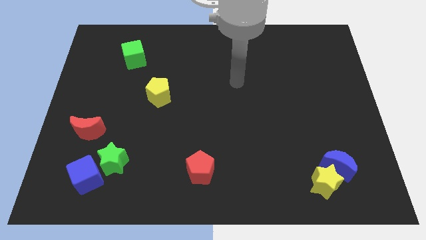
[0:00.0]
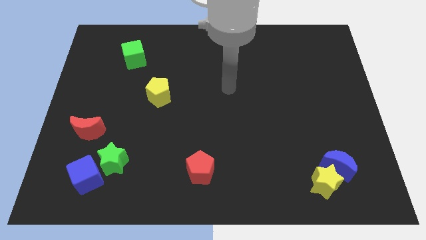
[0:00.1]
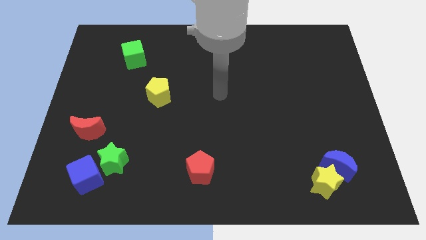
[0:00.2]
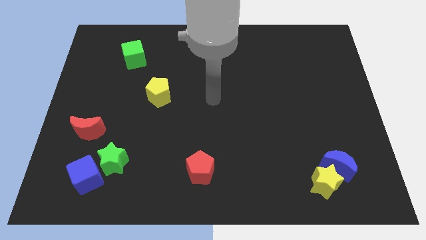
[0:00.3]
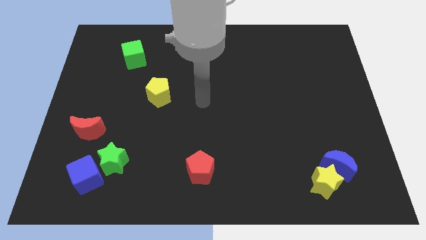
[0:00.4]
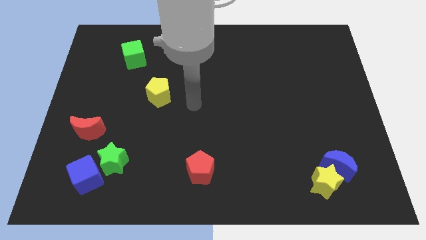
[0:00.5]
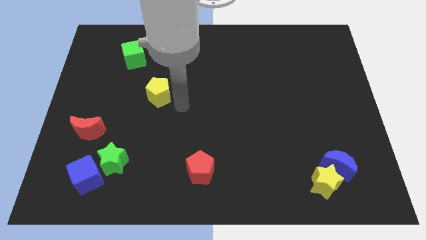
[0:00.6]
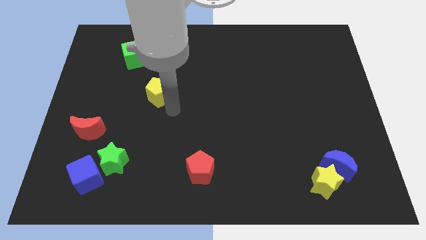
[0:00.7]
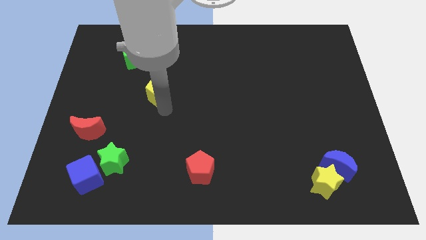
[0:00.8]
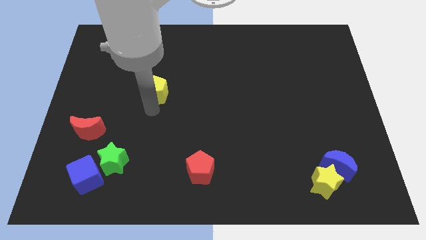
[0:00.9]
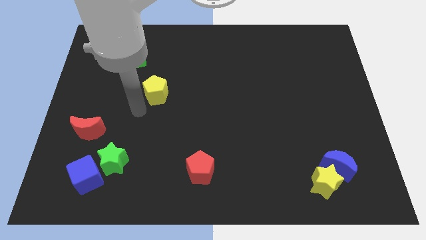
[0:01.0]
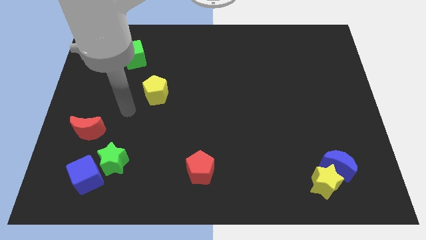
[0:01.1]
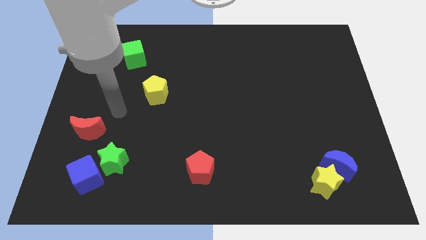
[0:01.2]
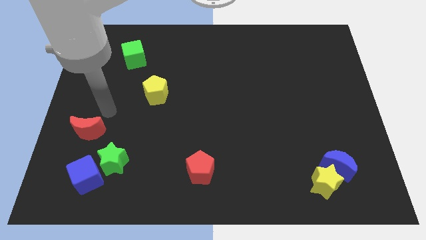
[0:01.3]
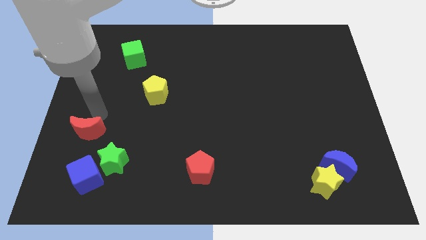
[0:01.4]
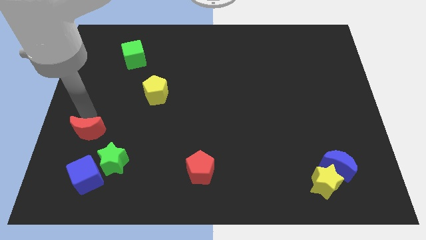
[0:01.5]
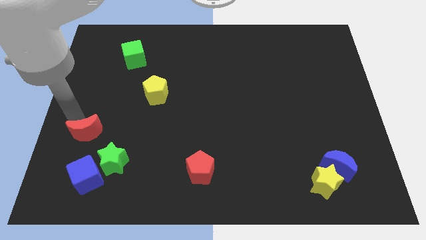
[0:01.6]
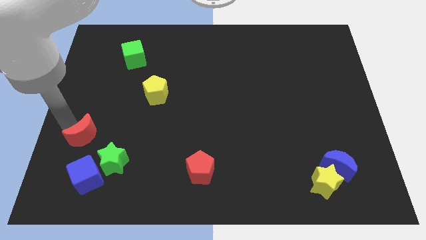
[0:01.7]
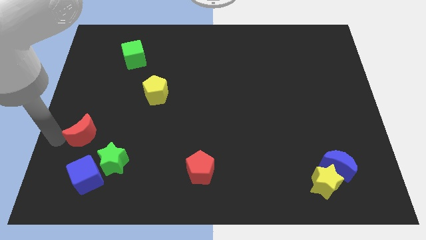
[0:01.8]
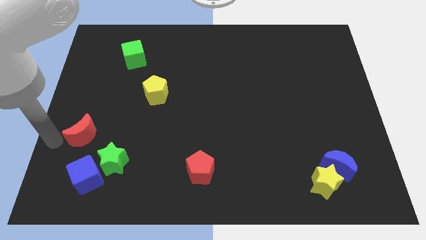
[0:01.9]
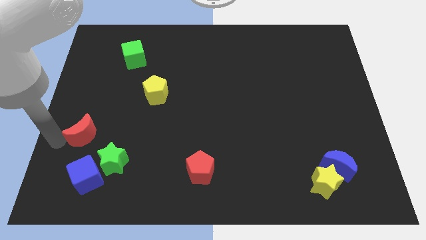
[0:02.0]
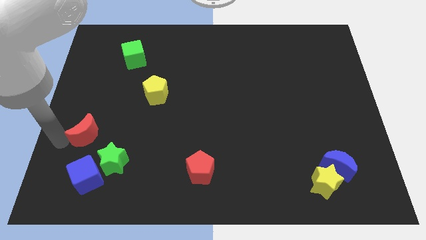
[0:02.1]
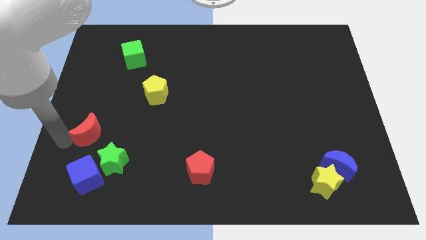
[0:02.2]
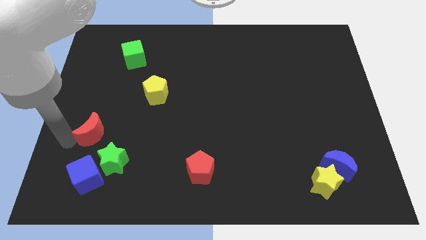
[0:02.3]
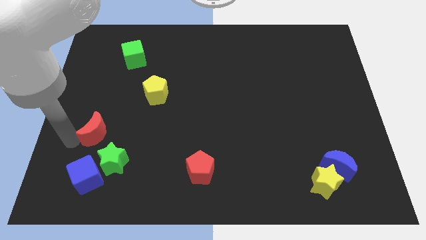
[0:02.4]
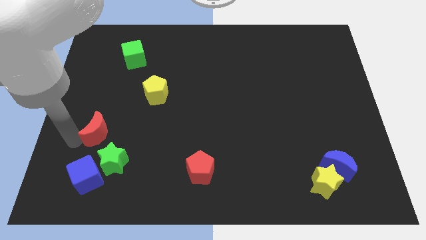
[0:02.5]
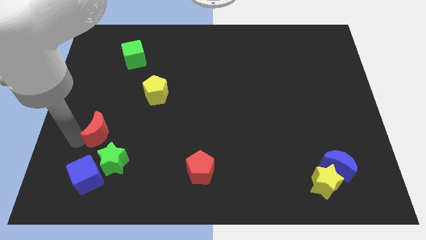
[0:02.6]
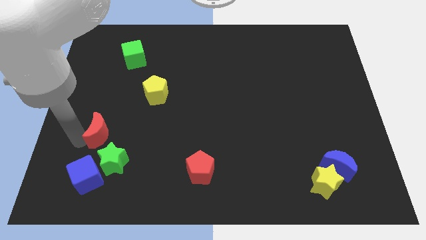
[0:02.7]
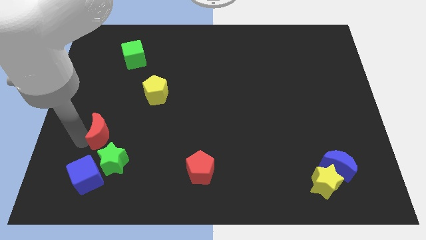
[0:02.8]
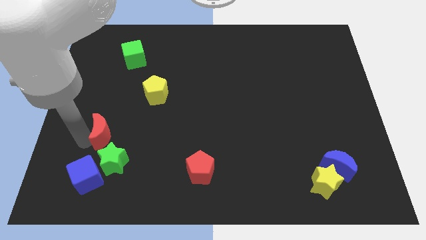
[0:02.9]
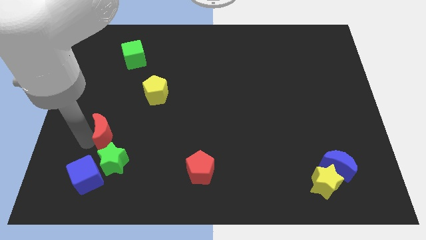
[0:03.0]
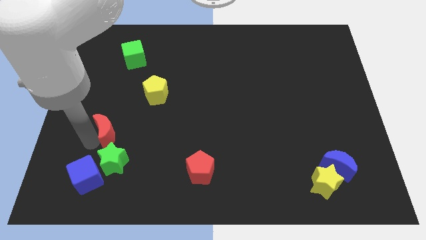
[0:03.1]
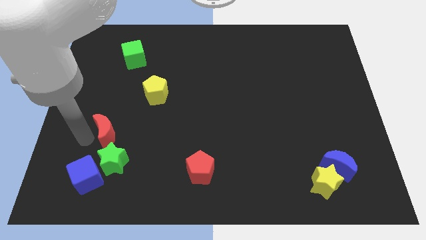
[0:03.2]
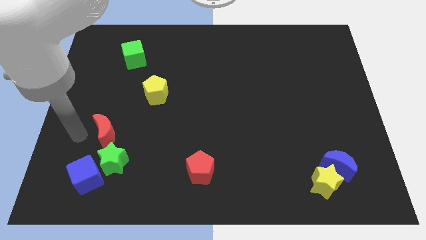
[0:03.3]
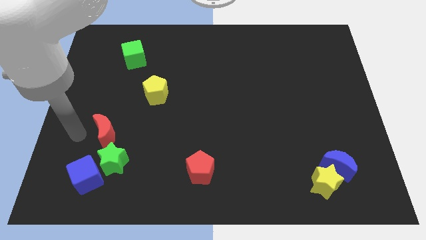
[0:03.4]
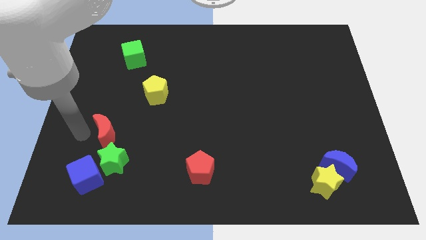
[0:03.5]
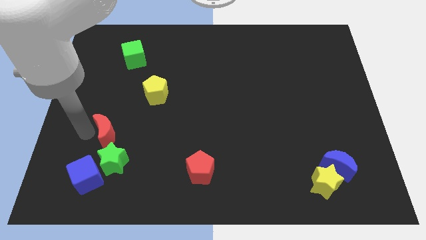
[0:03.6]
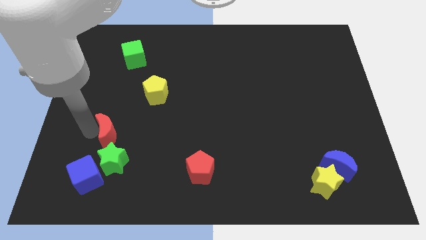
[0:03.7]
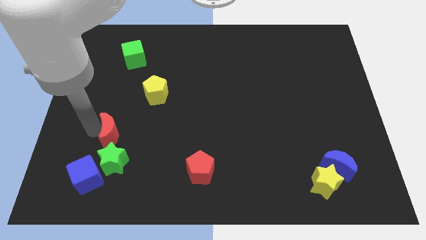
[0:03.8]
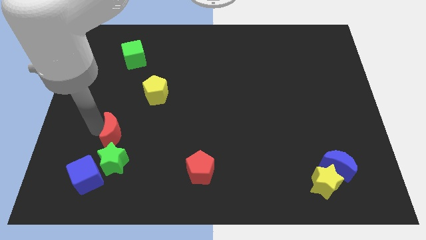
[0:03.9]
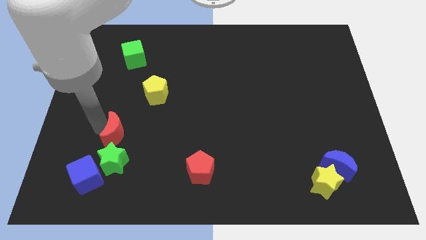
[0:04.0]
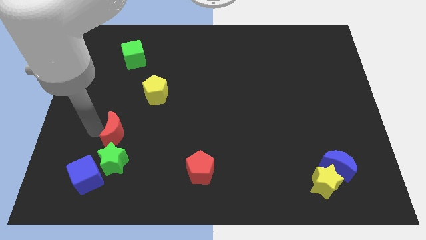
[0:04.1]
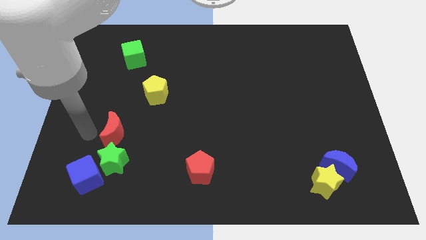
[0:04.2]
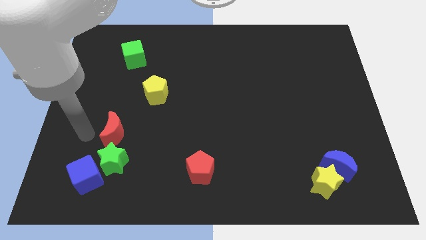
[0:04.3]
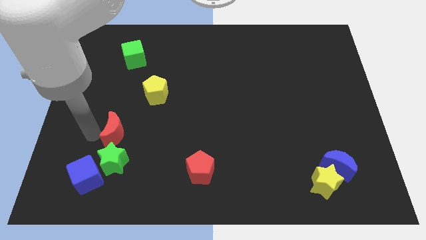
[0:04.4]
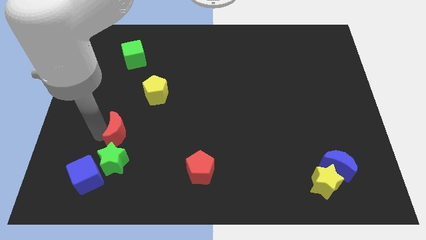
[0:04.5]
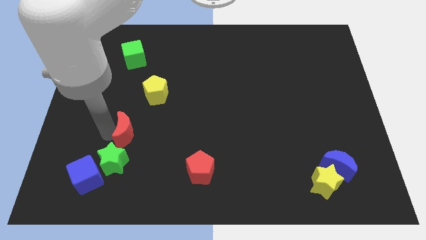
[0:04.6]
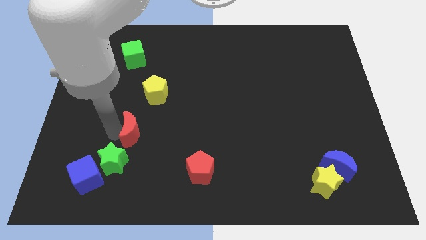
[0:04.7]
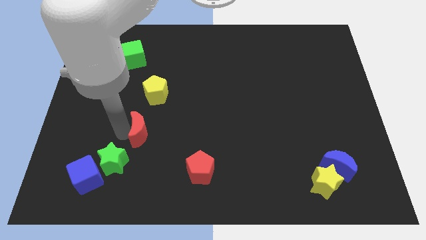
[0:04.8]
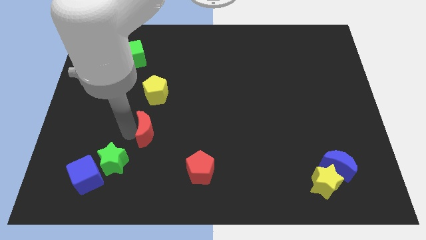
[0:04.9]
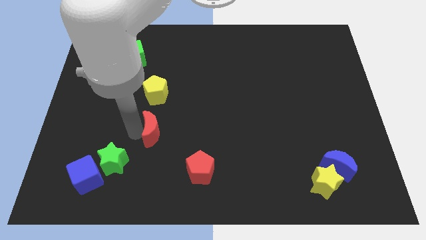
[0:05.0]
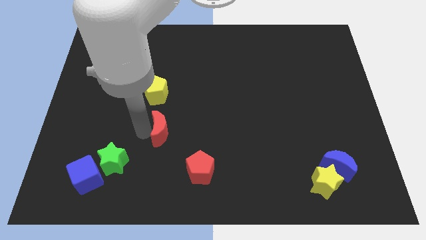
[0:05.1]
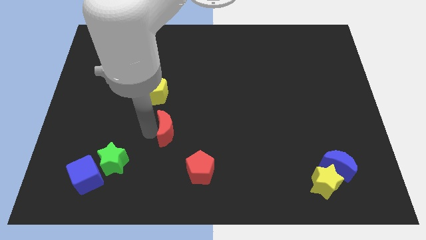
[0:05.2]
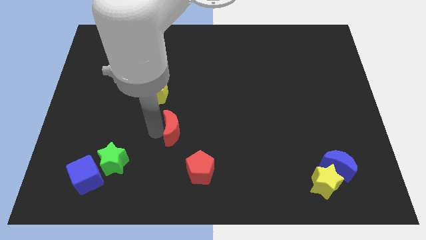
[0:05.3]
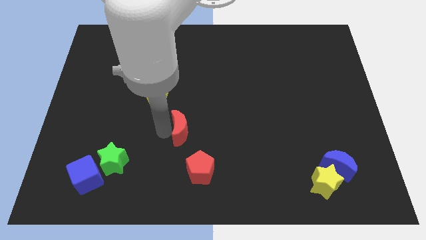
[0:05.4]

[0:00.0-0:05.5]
push the red moon to the right

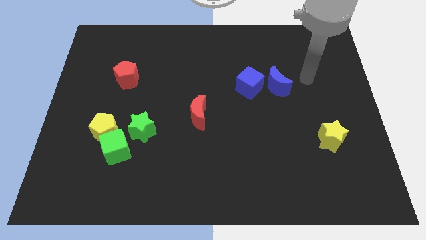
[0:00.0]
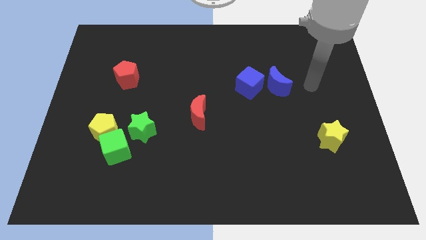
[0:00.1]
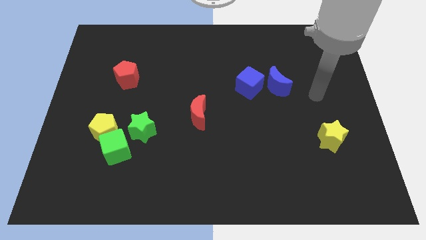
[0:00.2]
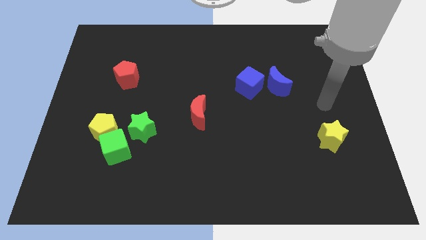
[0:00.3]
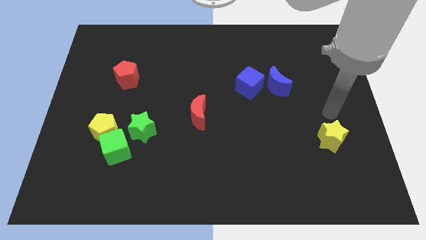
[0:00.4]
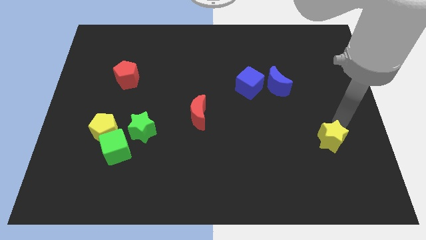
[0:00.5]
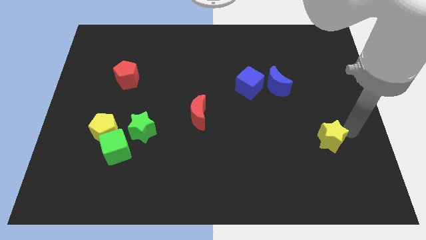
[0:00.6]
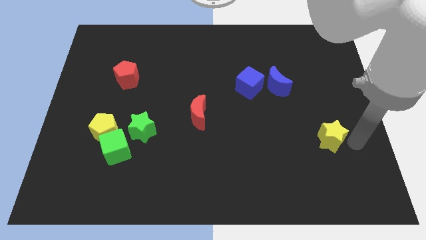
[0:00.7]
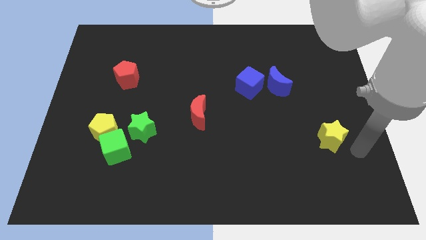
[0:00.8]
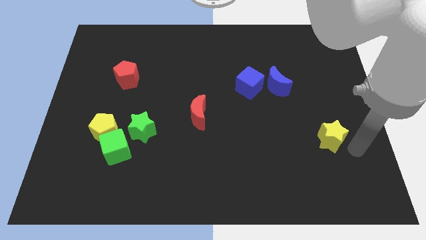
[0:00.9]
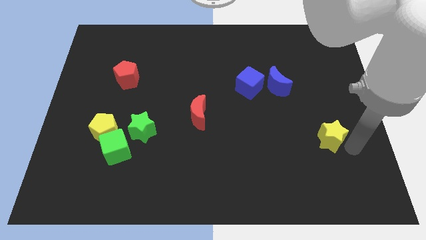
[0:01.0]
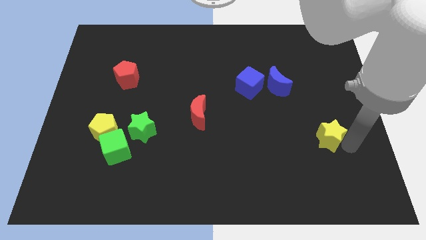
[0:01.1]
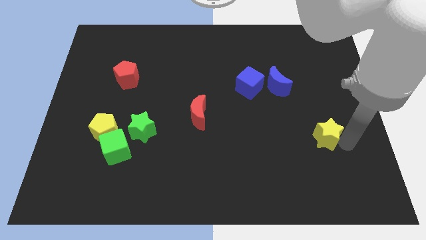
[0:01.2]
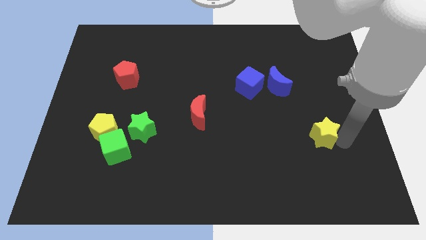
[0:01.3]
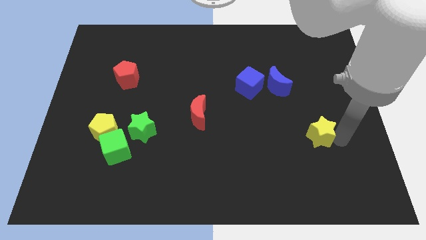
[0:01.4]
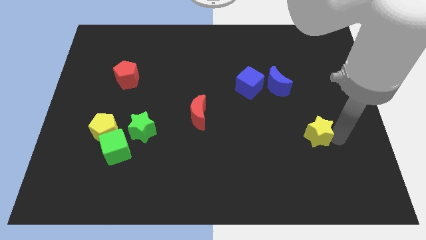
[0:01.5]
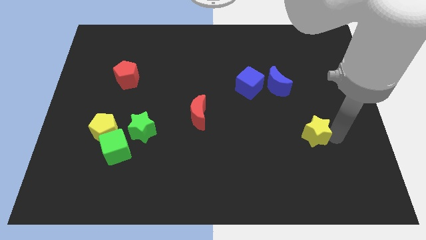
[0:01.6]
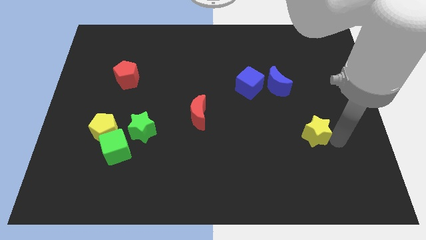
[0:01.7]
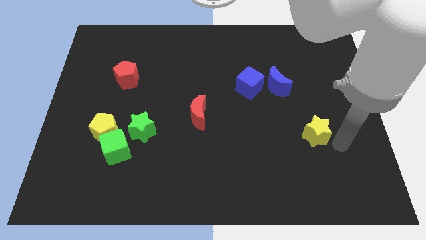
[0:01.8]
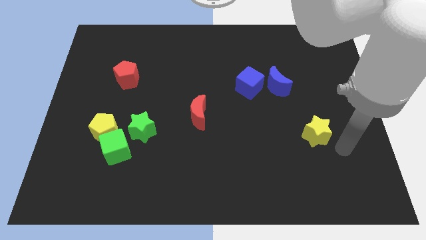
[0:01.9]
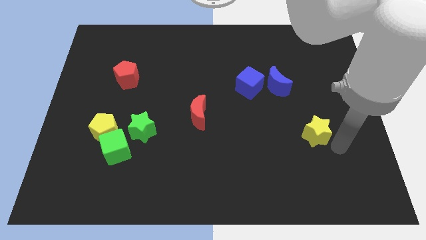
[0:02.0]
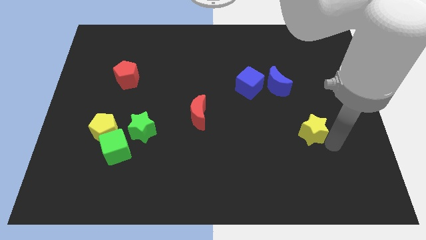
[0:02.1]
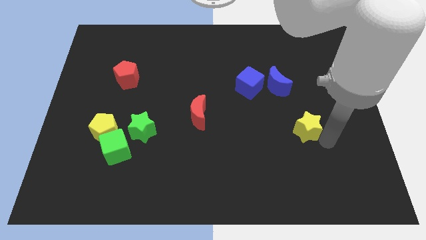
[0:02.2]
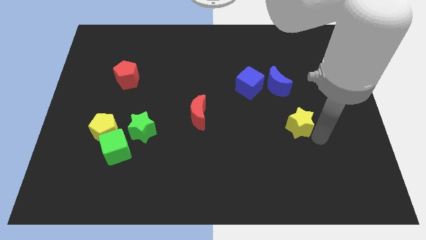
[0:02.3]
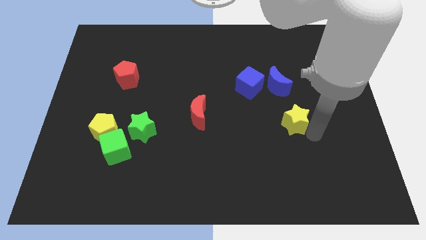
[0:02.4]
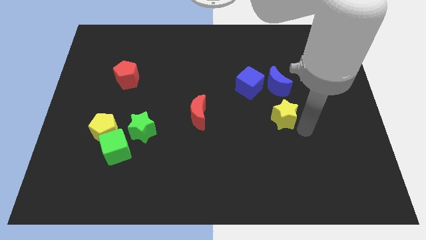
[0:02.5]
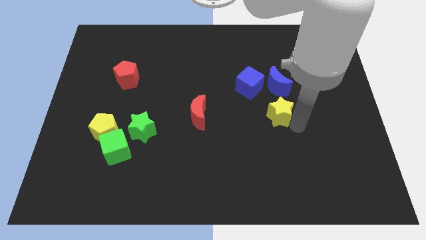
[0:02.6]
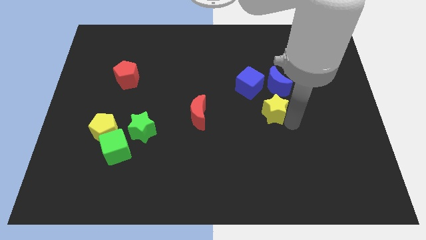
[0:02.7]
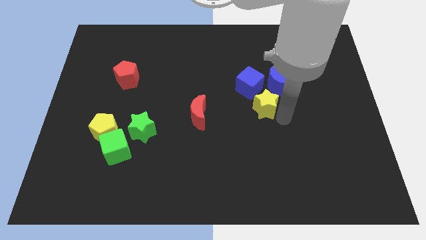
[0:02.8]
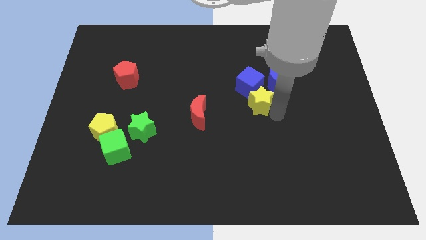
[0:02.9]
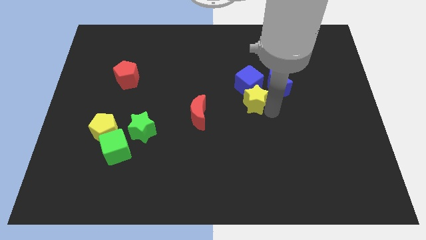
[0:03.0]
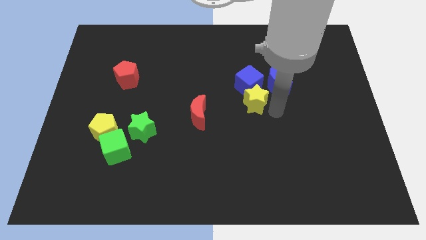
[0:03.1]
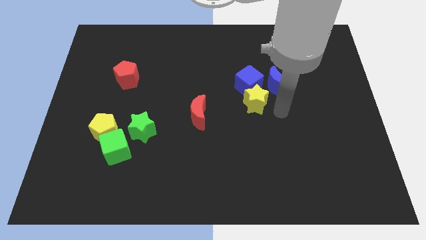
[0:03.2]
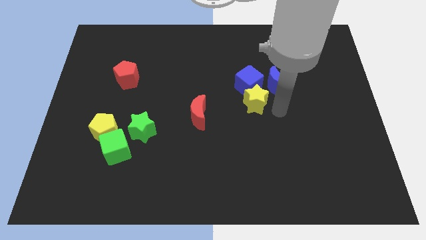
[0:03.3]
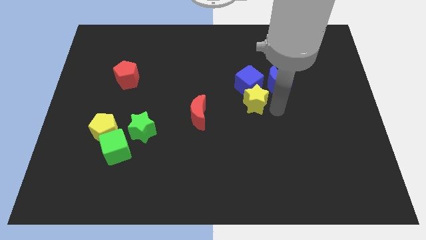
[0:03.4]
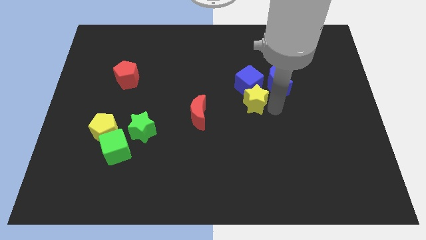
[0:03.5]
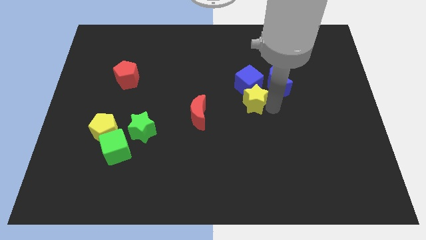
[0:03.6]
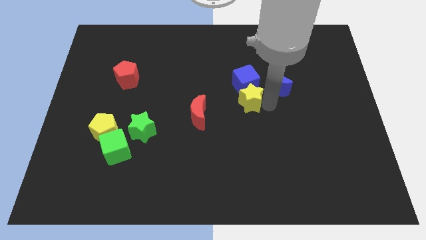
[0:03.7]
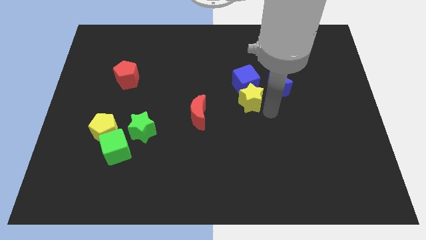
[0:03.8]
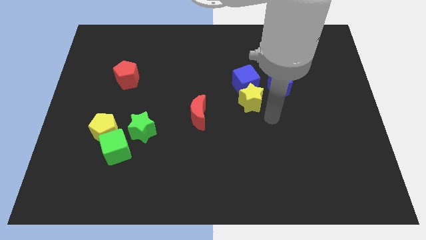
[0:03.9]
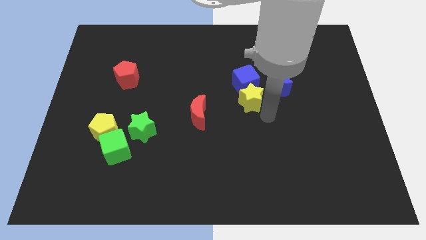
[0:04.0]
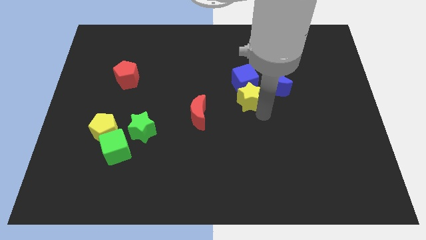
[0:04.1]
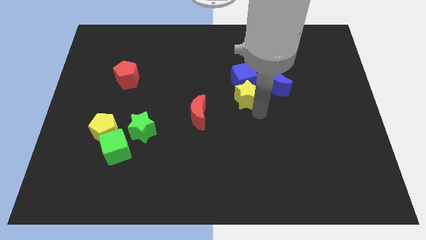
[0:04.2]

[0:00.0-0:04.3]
push the yellow star upwards and left
